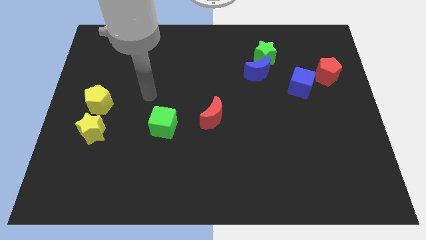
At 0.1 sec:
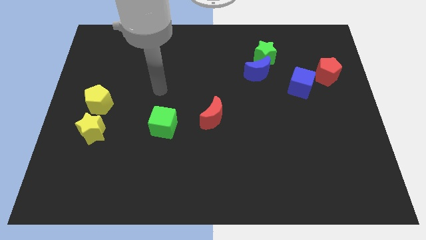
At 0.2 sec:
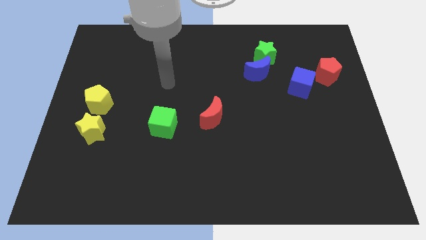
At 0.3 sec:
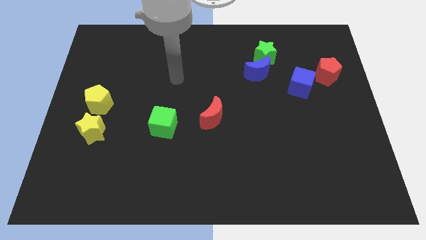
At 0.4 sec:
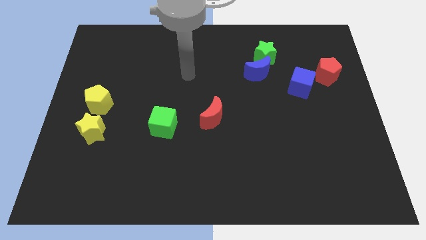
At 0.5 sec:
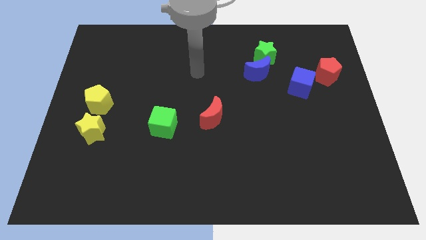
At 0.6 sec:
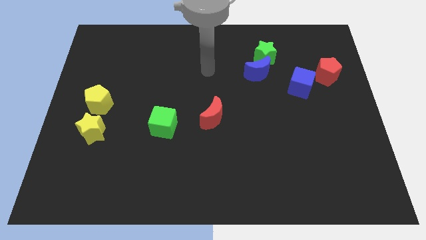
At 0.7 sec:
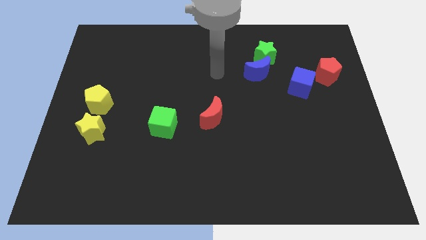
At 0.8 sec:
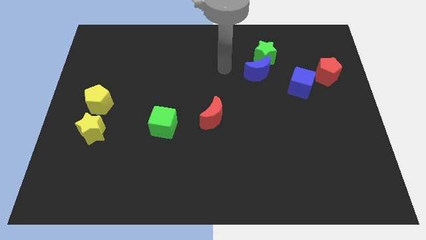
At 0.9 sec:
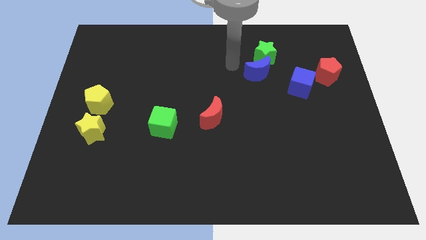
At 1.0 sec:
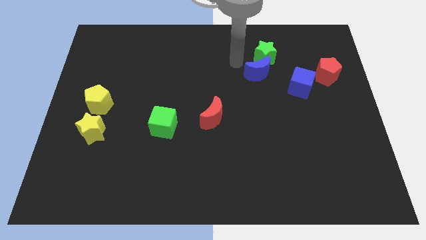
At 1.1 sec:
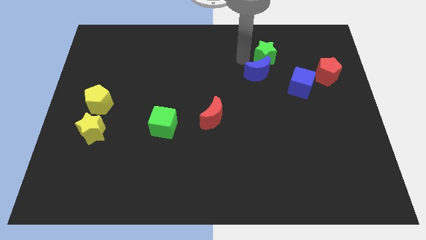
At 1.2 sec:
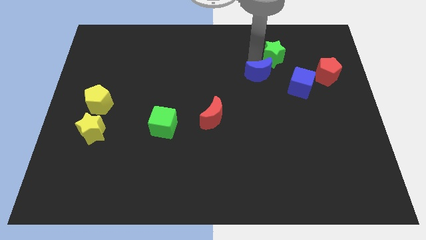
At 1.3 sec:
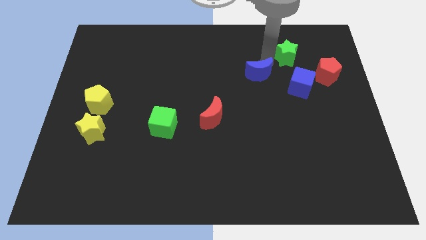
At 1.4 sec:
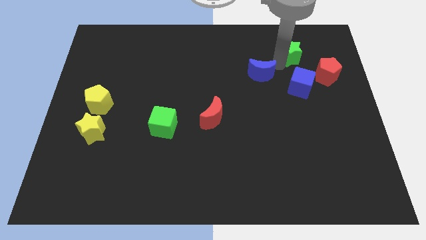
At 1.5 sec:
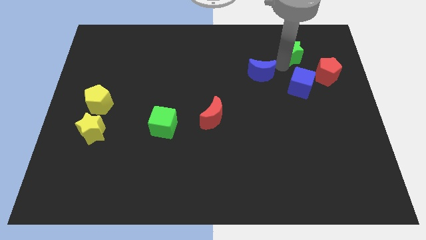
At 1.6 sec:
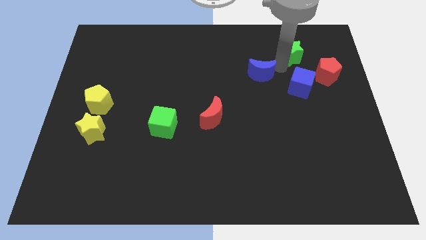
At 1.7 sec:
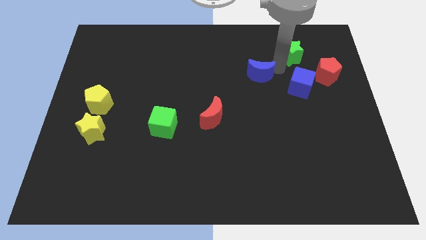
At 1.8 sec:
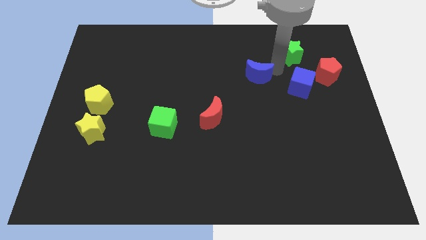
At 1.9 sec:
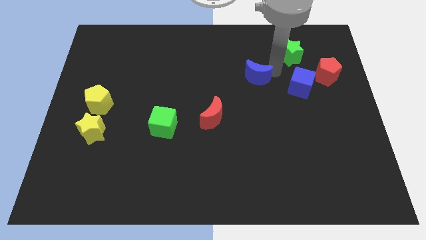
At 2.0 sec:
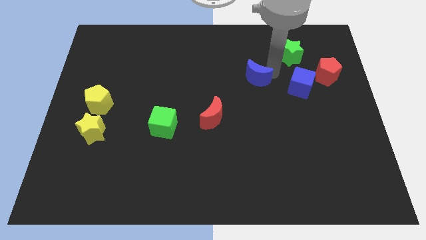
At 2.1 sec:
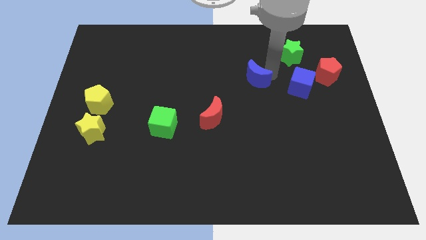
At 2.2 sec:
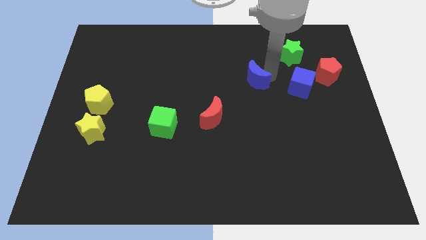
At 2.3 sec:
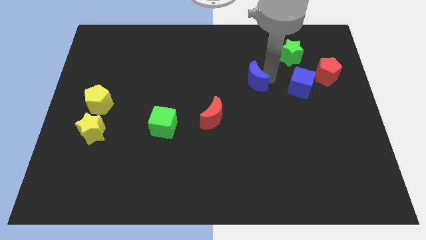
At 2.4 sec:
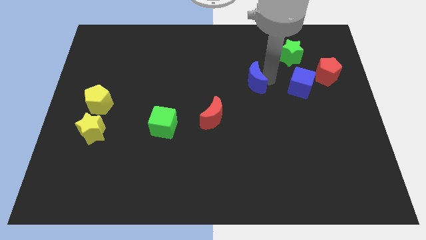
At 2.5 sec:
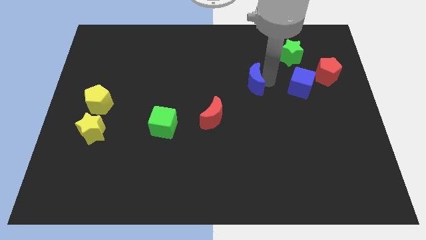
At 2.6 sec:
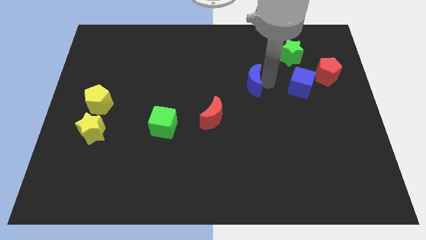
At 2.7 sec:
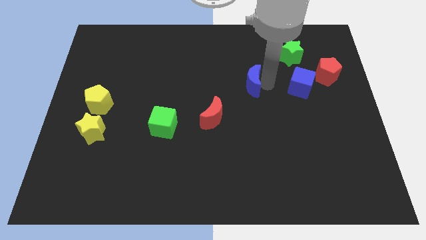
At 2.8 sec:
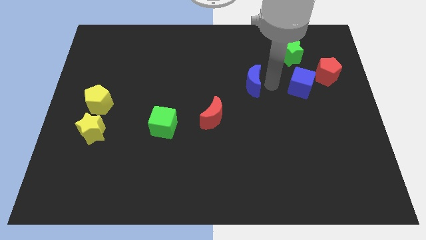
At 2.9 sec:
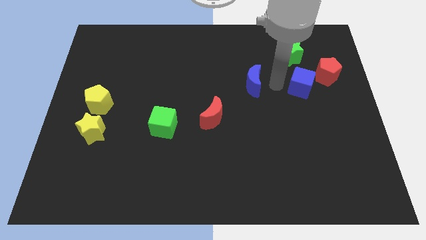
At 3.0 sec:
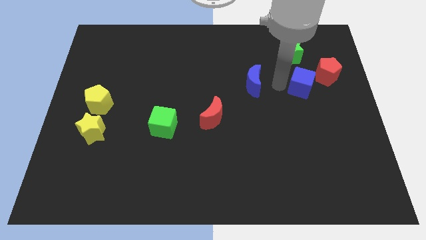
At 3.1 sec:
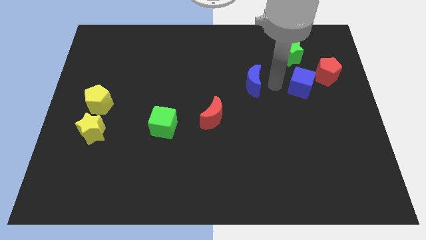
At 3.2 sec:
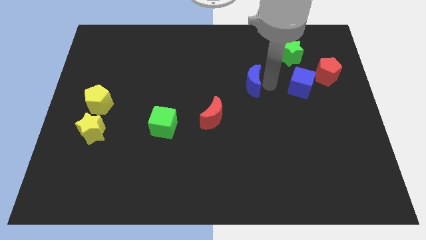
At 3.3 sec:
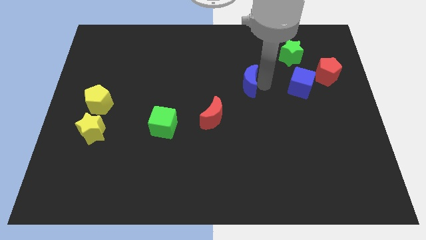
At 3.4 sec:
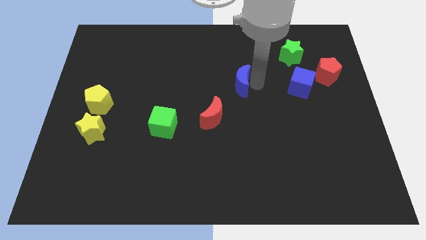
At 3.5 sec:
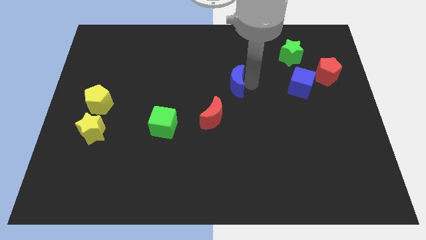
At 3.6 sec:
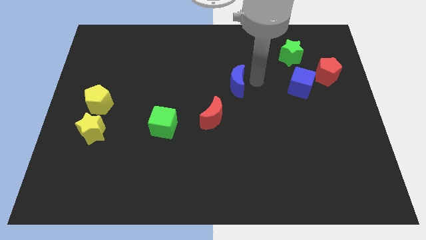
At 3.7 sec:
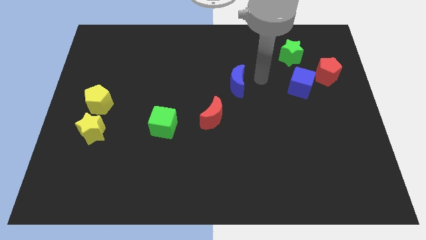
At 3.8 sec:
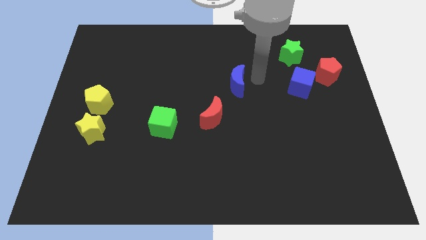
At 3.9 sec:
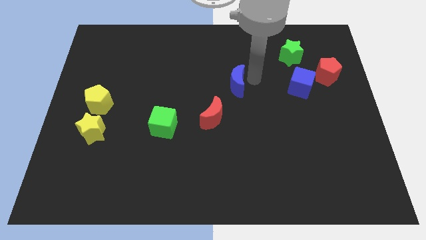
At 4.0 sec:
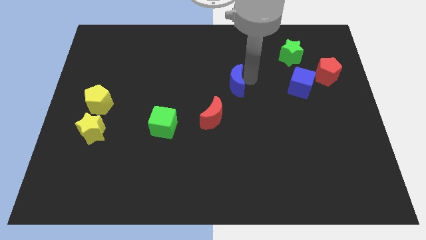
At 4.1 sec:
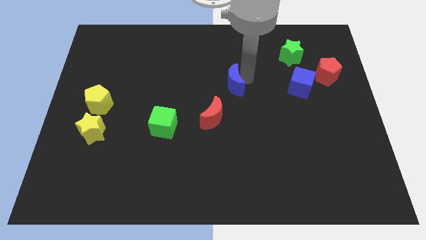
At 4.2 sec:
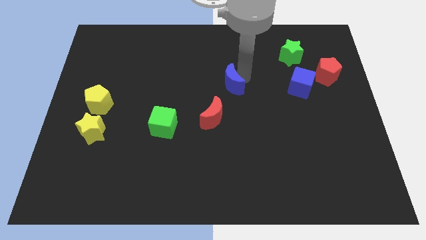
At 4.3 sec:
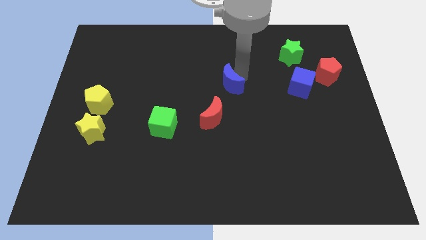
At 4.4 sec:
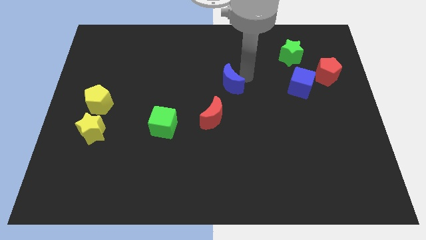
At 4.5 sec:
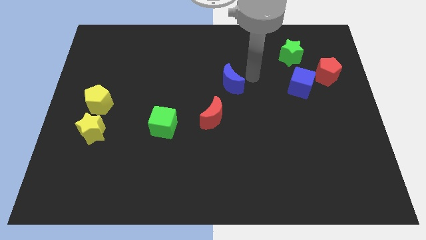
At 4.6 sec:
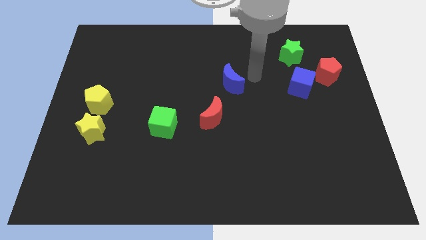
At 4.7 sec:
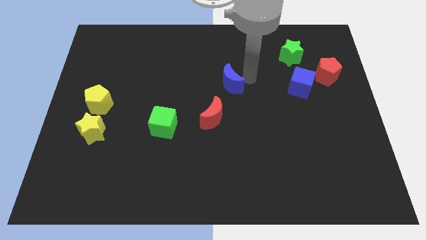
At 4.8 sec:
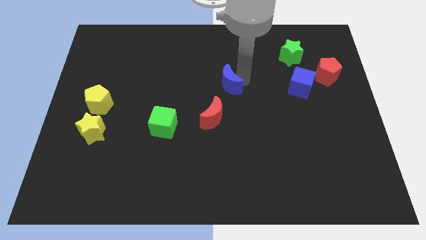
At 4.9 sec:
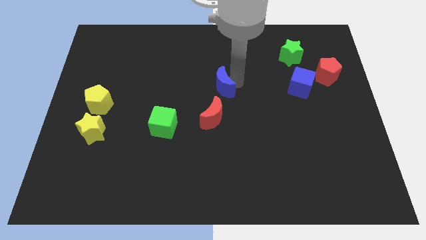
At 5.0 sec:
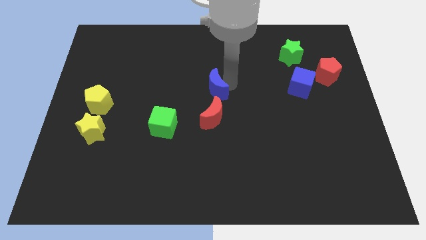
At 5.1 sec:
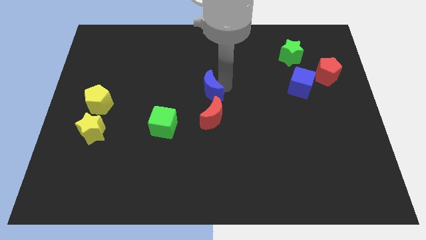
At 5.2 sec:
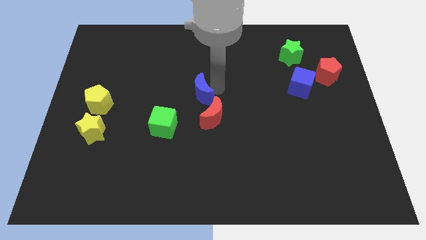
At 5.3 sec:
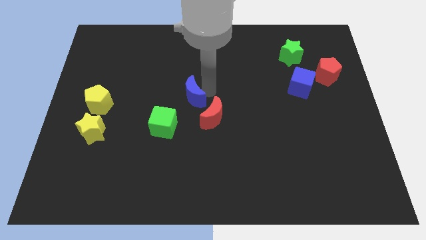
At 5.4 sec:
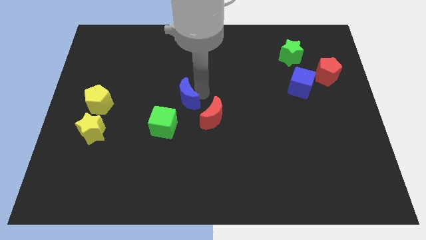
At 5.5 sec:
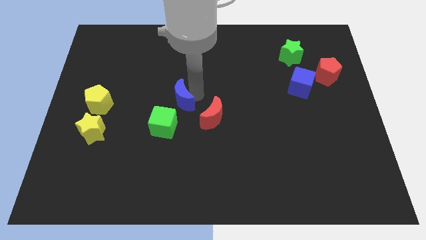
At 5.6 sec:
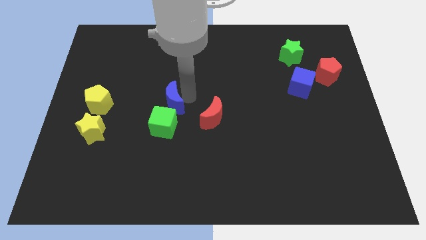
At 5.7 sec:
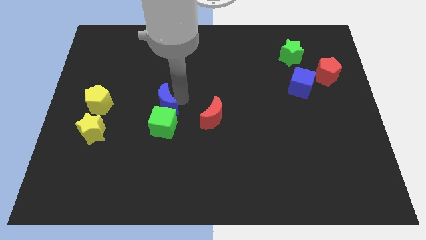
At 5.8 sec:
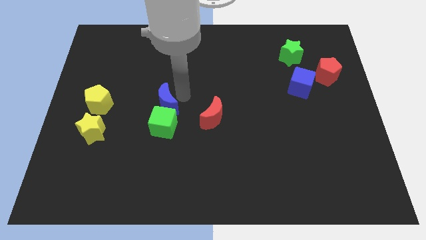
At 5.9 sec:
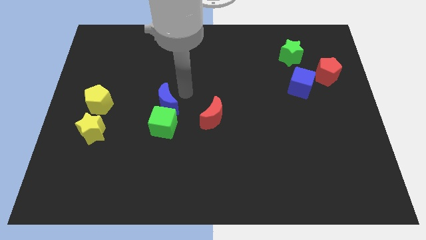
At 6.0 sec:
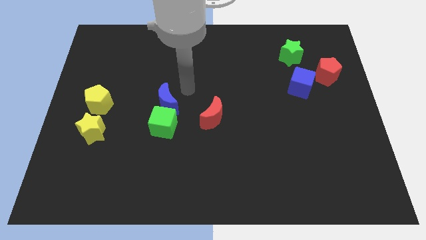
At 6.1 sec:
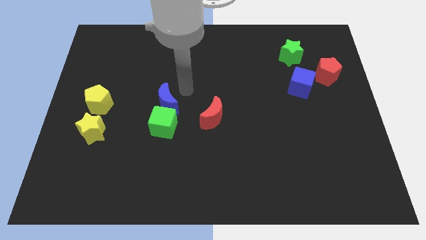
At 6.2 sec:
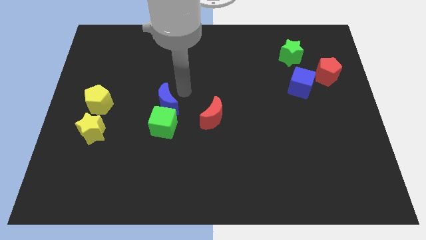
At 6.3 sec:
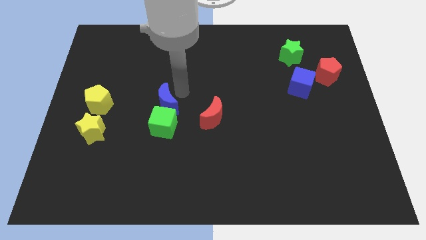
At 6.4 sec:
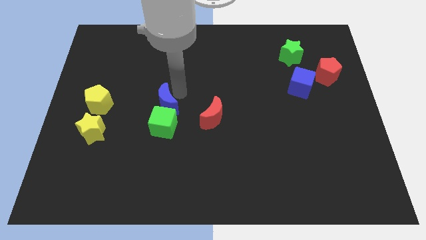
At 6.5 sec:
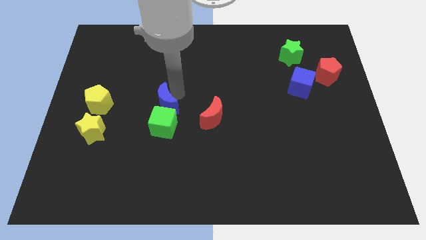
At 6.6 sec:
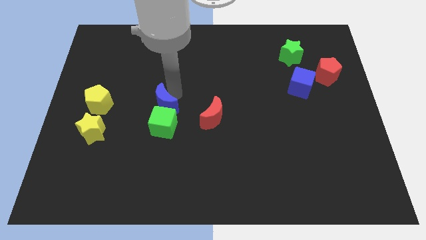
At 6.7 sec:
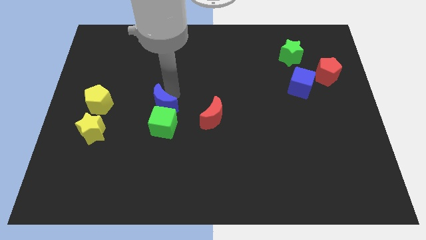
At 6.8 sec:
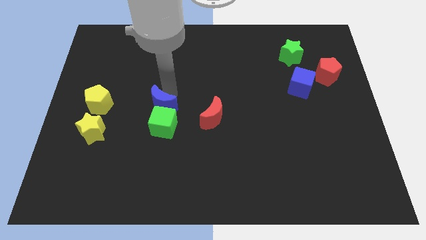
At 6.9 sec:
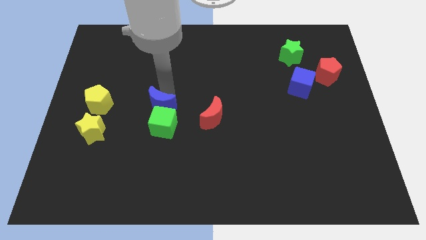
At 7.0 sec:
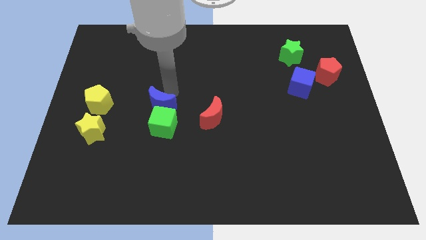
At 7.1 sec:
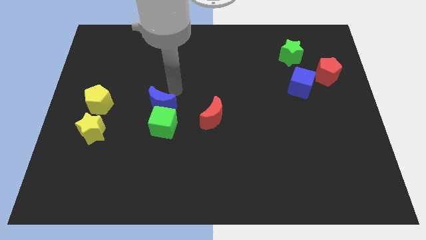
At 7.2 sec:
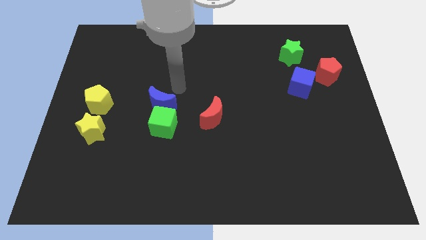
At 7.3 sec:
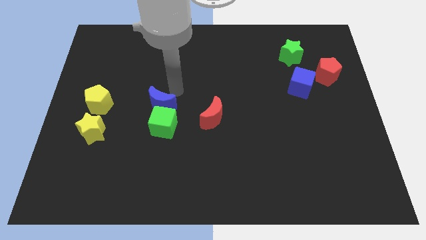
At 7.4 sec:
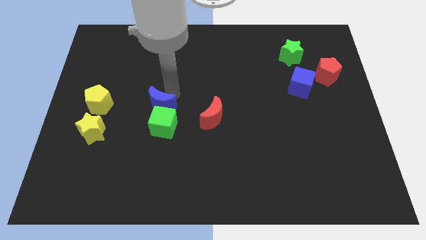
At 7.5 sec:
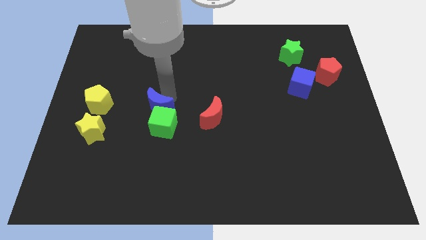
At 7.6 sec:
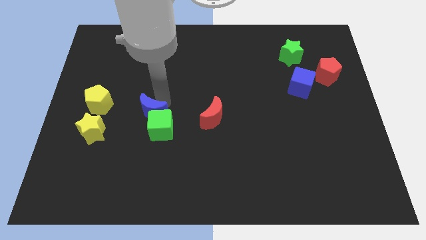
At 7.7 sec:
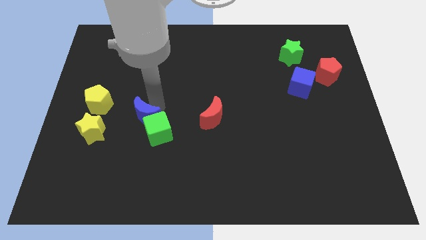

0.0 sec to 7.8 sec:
move the blue moon to the right of the yellow star
